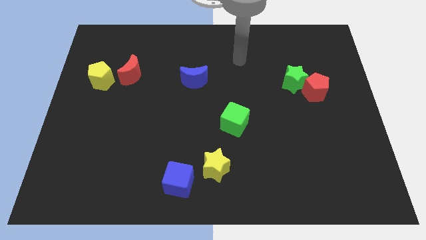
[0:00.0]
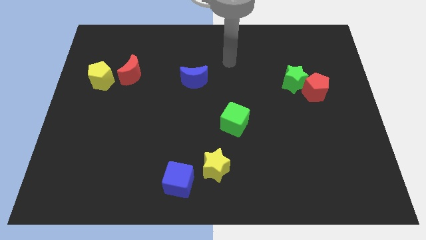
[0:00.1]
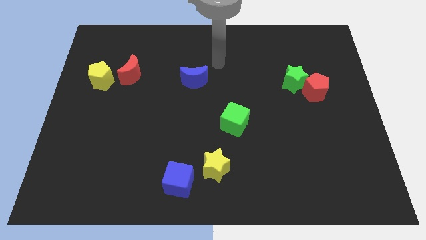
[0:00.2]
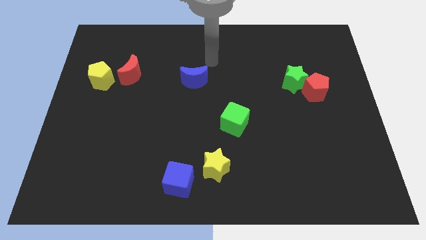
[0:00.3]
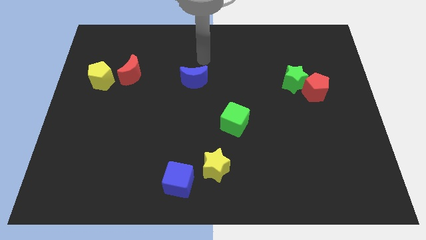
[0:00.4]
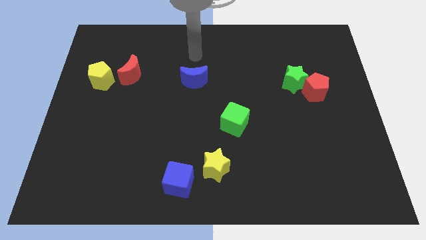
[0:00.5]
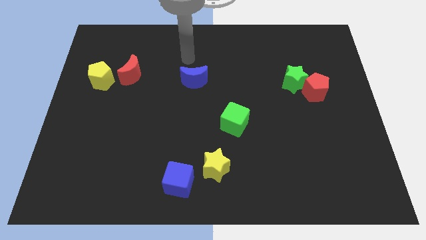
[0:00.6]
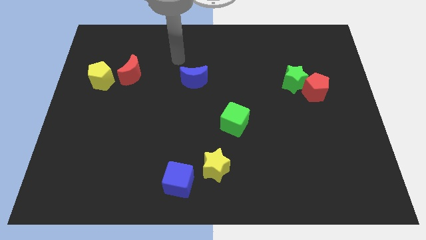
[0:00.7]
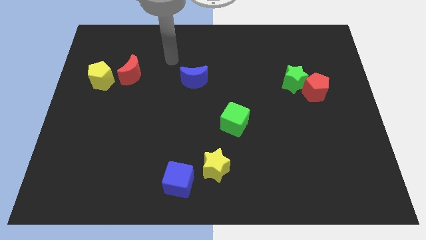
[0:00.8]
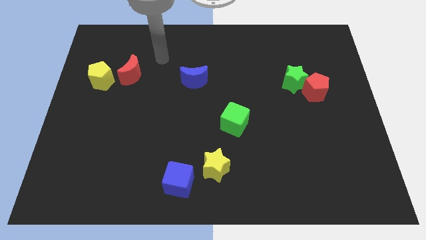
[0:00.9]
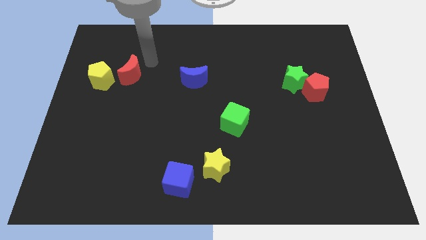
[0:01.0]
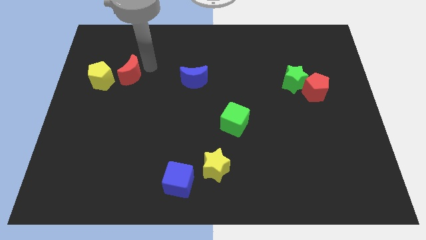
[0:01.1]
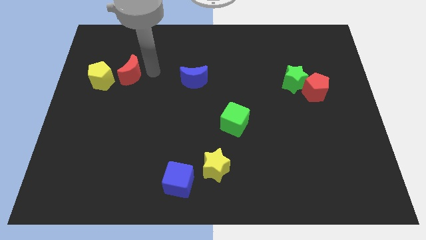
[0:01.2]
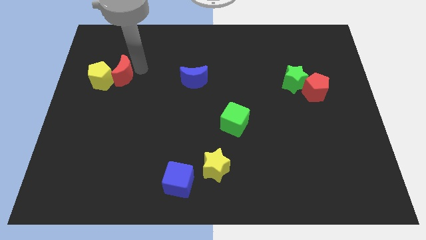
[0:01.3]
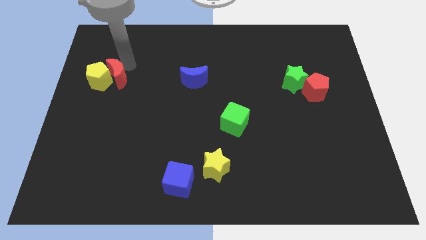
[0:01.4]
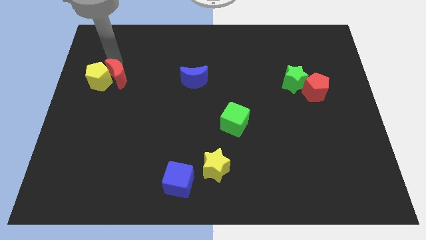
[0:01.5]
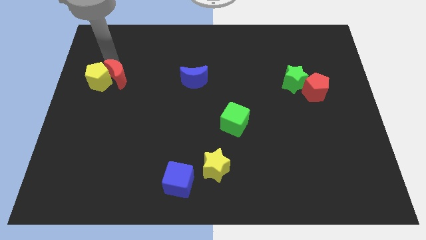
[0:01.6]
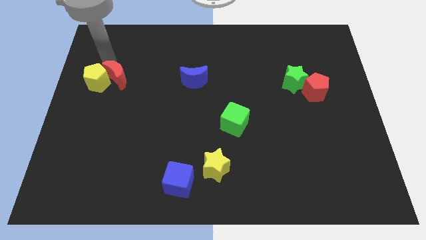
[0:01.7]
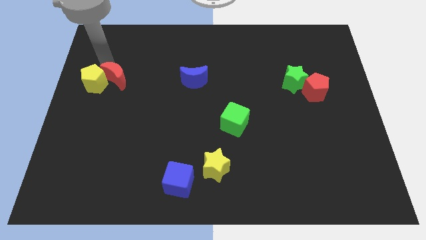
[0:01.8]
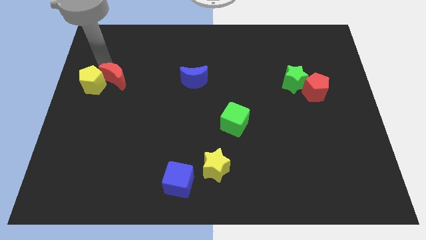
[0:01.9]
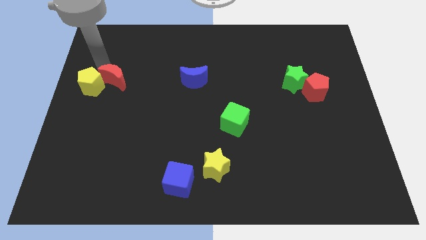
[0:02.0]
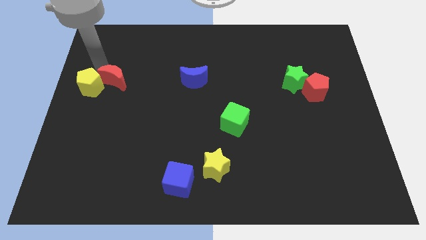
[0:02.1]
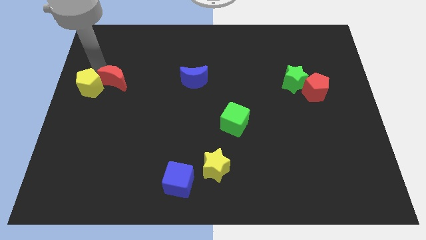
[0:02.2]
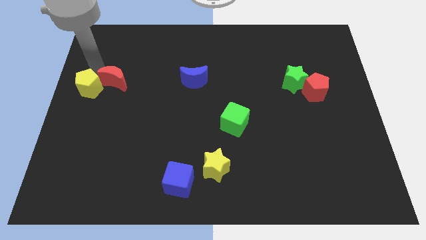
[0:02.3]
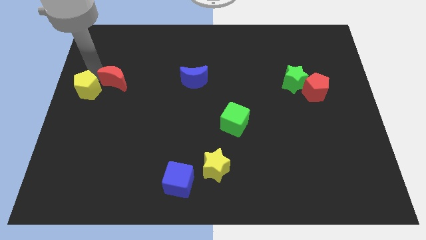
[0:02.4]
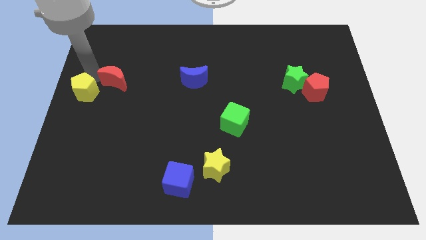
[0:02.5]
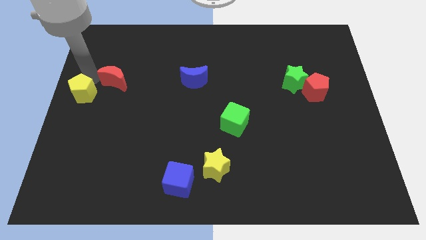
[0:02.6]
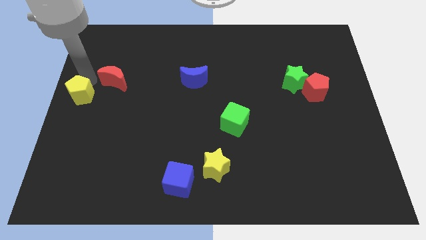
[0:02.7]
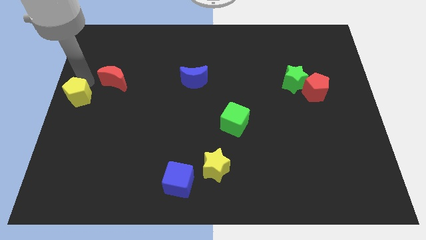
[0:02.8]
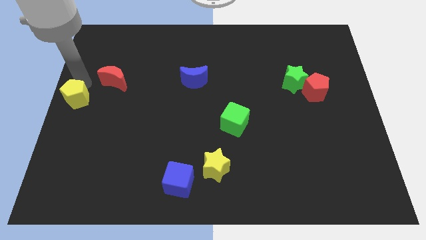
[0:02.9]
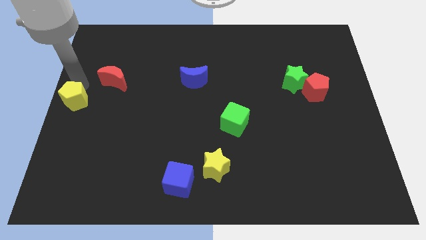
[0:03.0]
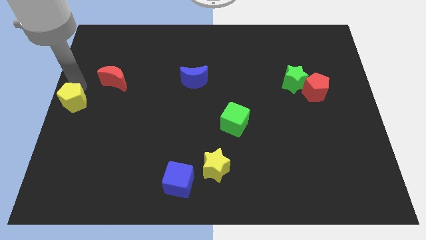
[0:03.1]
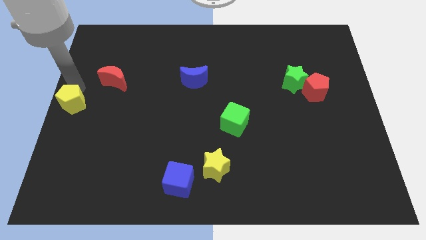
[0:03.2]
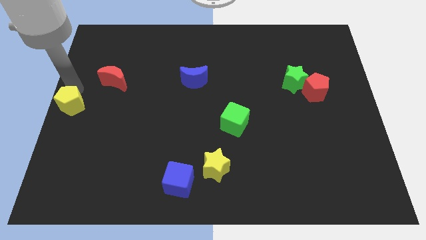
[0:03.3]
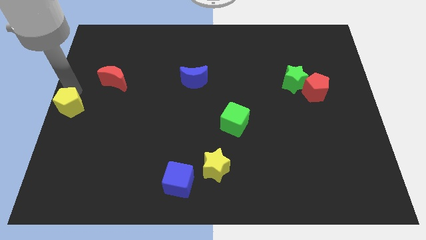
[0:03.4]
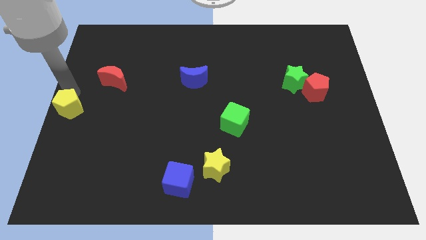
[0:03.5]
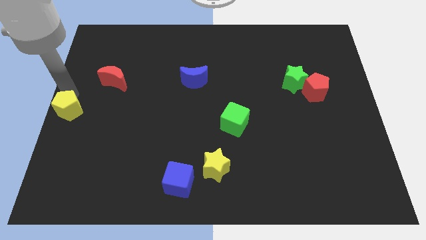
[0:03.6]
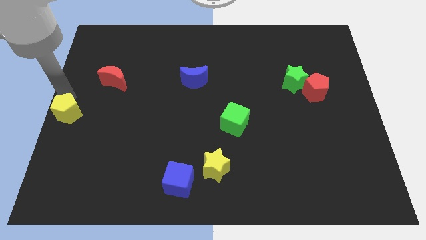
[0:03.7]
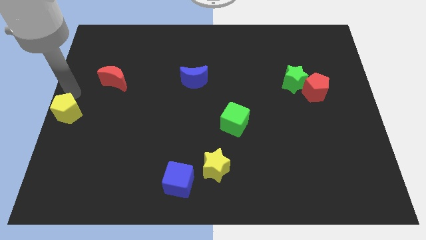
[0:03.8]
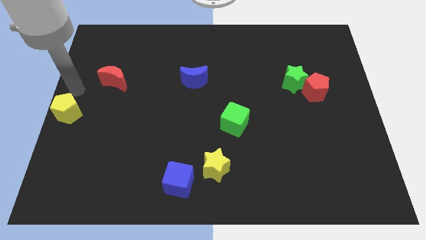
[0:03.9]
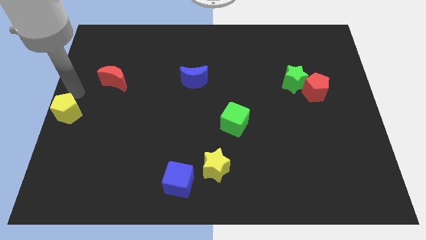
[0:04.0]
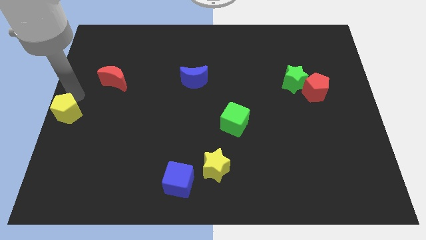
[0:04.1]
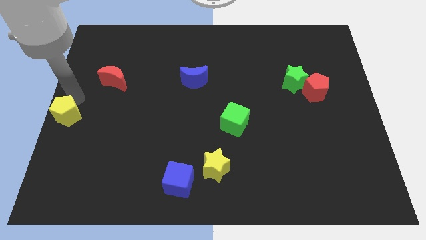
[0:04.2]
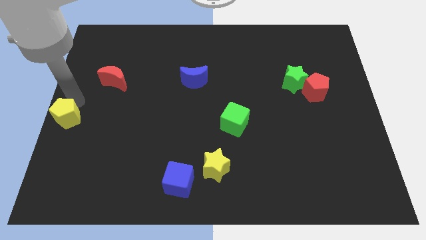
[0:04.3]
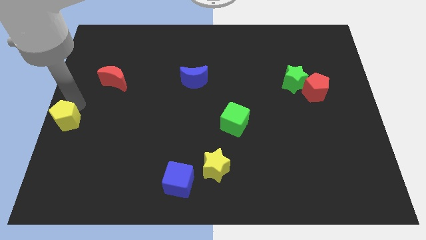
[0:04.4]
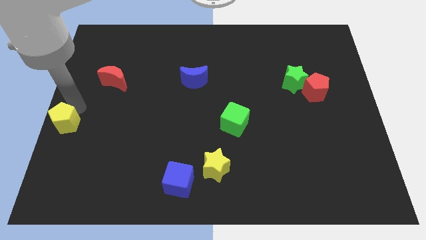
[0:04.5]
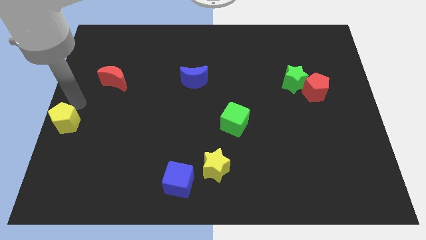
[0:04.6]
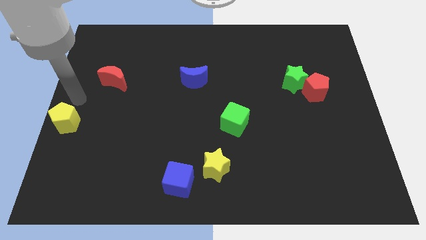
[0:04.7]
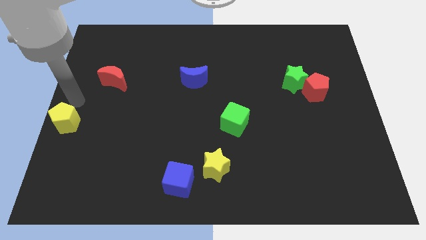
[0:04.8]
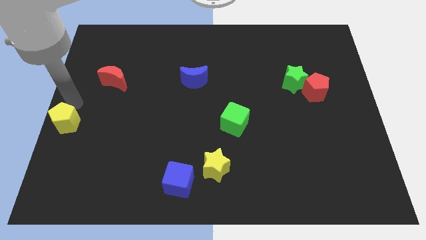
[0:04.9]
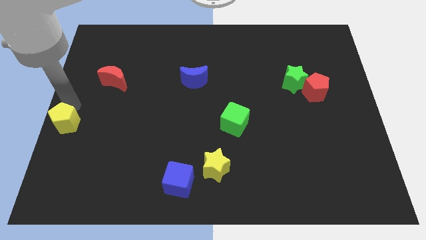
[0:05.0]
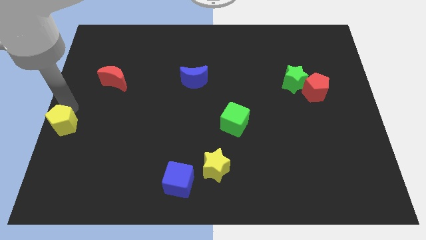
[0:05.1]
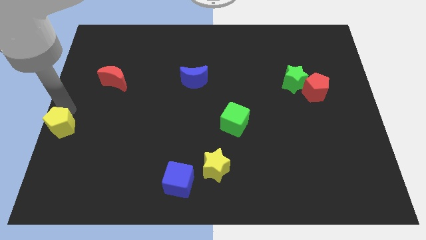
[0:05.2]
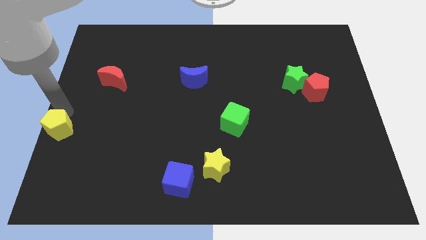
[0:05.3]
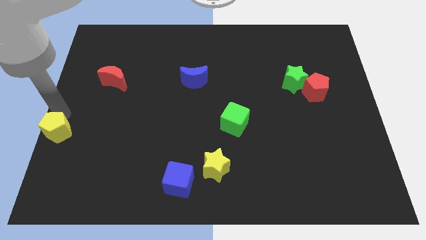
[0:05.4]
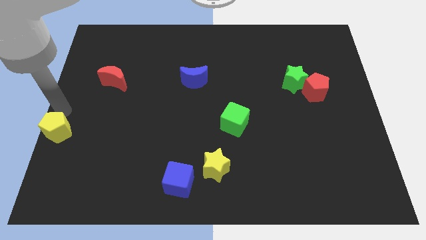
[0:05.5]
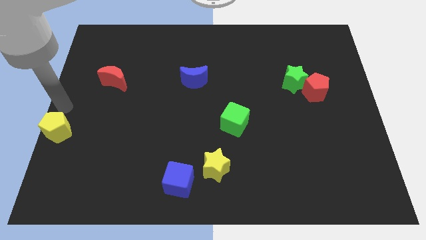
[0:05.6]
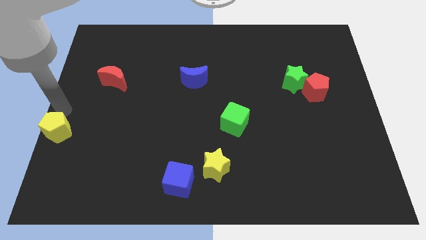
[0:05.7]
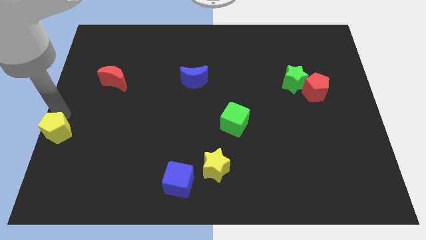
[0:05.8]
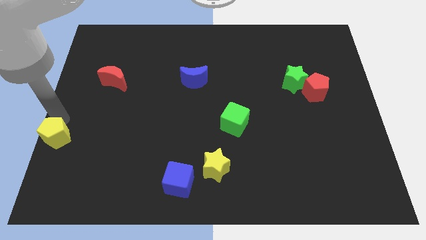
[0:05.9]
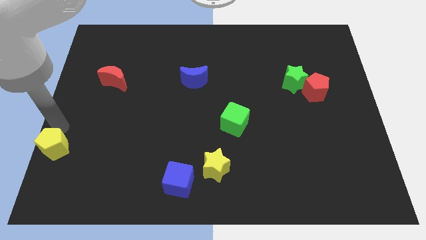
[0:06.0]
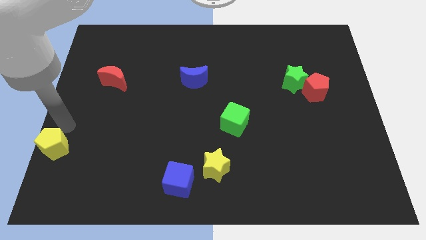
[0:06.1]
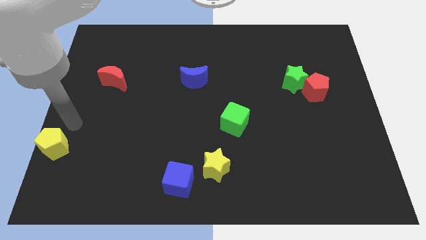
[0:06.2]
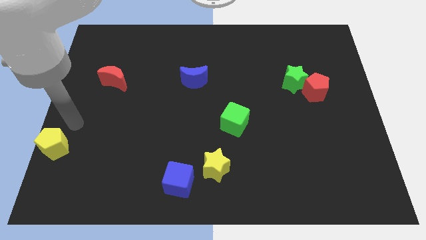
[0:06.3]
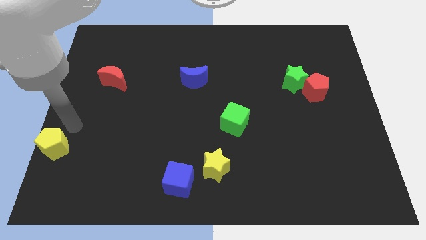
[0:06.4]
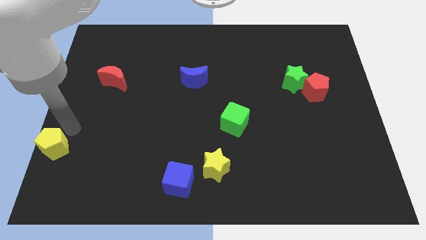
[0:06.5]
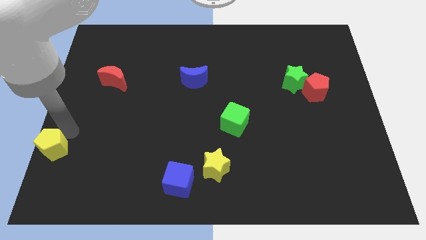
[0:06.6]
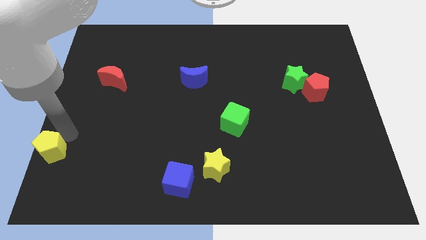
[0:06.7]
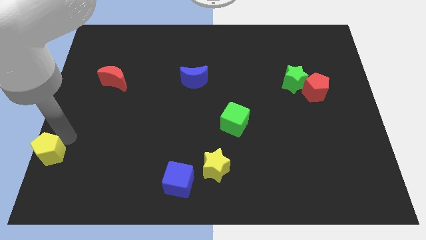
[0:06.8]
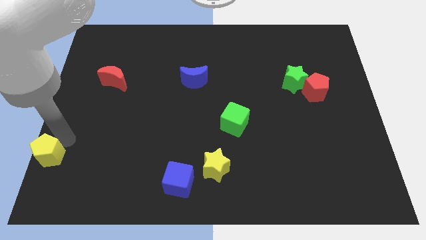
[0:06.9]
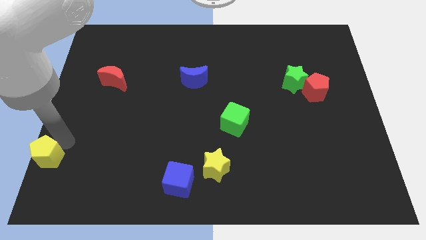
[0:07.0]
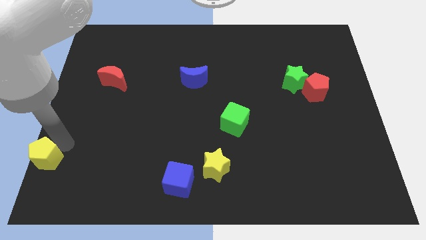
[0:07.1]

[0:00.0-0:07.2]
put the yellow pentagon to the lower left corner

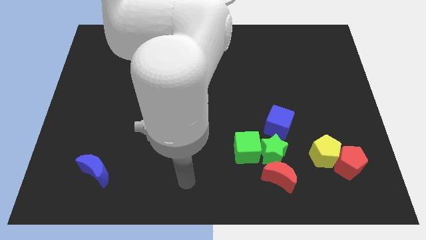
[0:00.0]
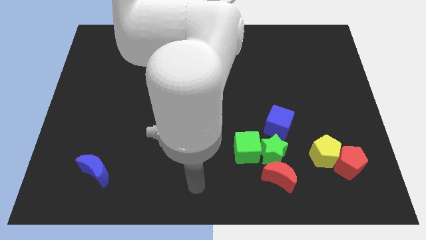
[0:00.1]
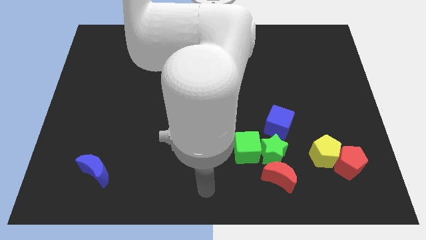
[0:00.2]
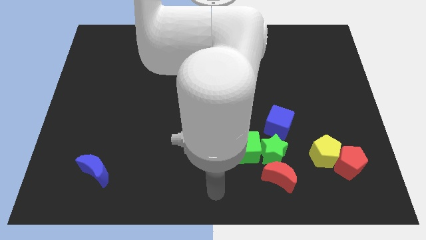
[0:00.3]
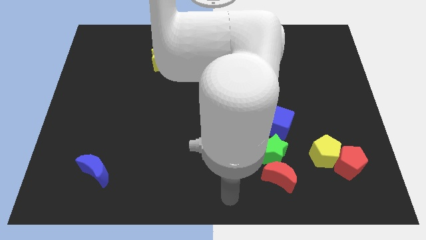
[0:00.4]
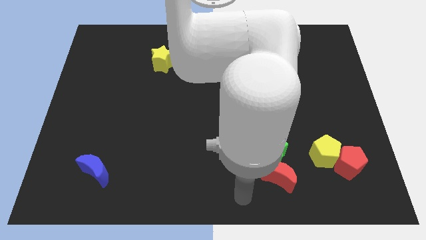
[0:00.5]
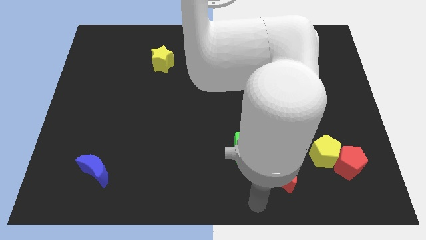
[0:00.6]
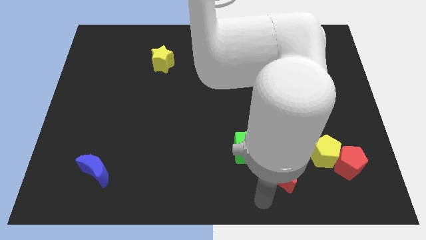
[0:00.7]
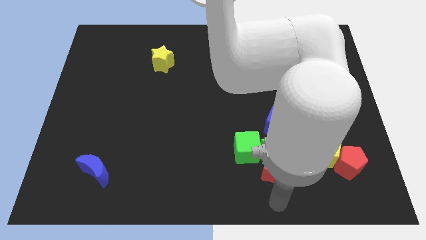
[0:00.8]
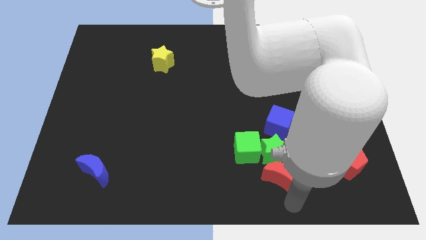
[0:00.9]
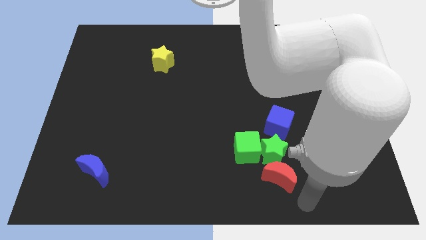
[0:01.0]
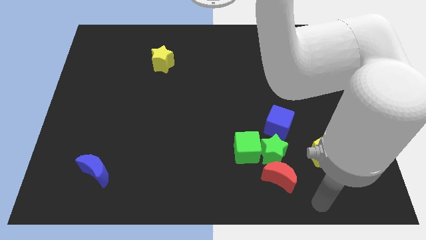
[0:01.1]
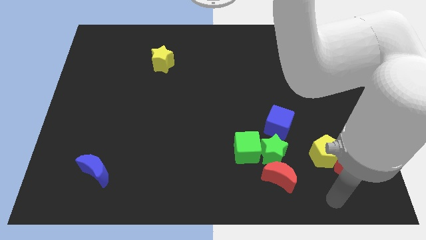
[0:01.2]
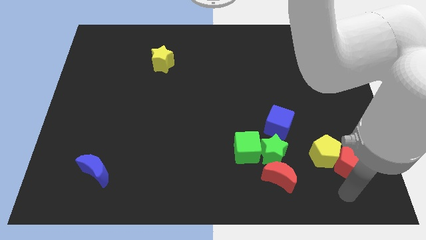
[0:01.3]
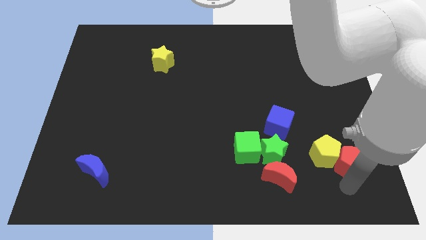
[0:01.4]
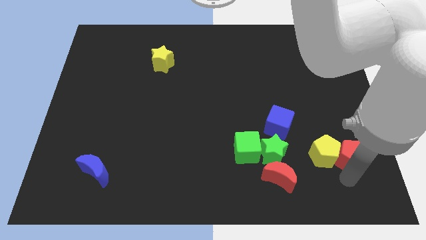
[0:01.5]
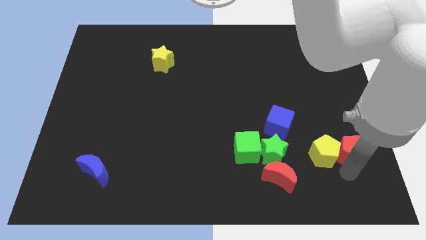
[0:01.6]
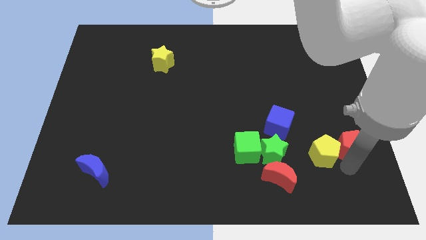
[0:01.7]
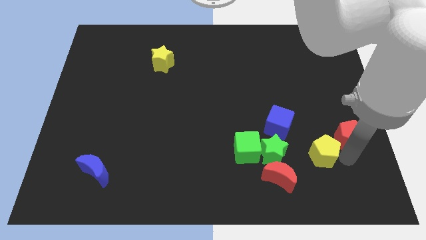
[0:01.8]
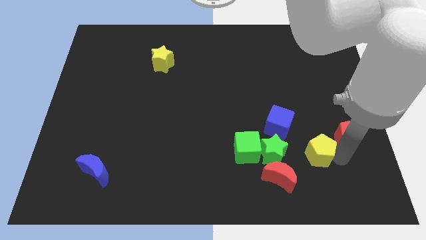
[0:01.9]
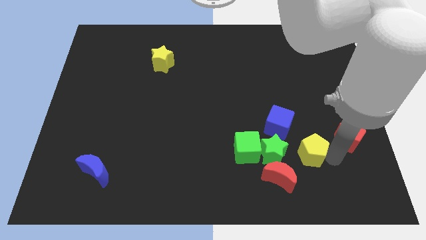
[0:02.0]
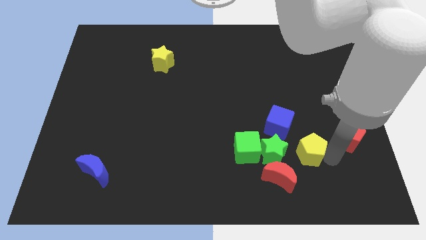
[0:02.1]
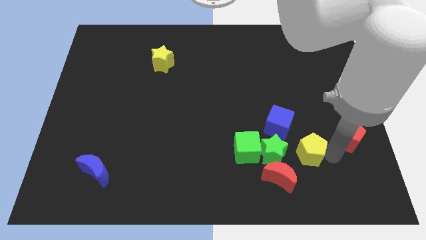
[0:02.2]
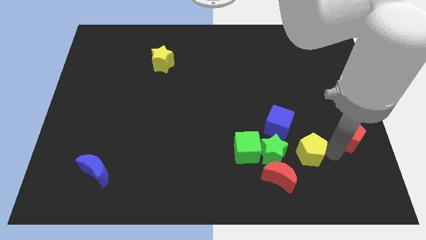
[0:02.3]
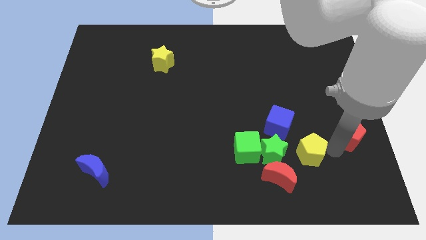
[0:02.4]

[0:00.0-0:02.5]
slide the red pentagon to the right side of the board
